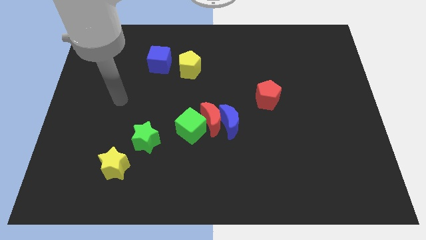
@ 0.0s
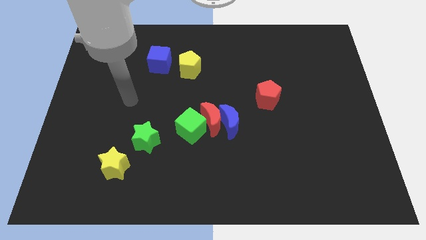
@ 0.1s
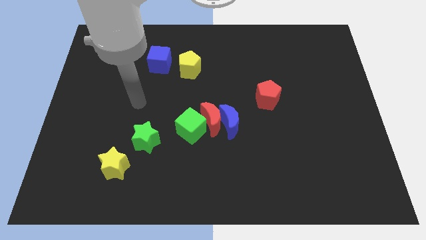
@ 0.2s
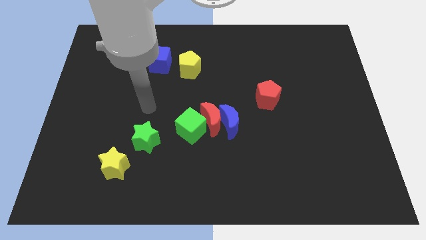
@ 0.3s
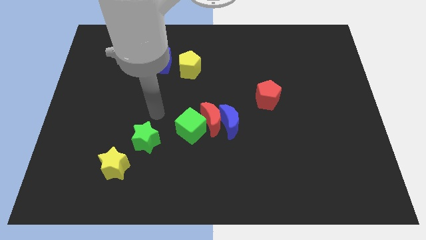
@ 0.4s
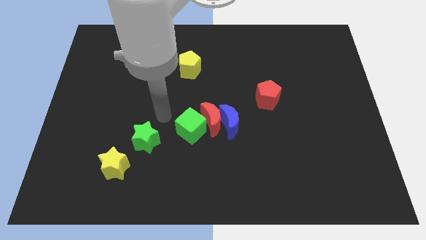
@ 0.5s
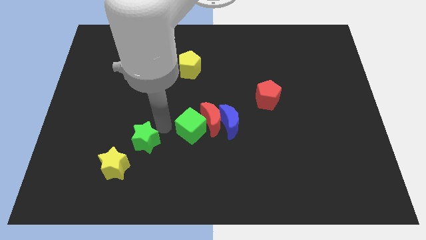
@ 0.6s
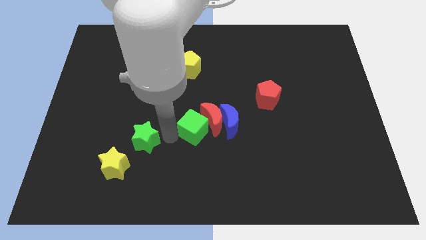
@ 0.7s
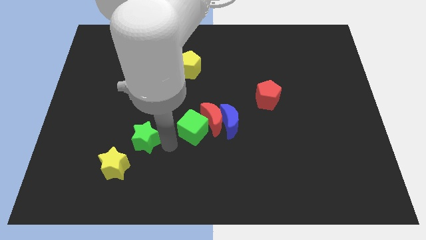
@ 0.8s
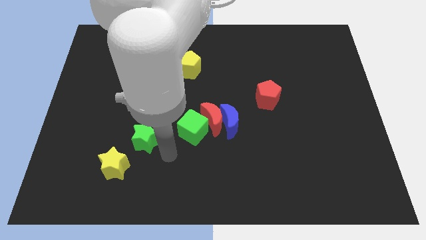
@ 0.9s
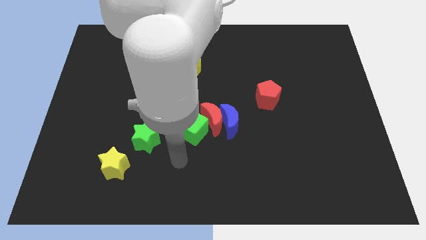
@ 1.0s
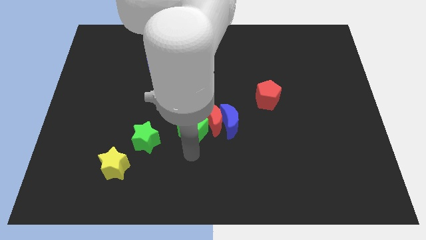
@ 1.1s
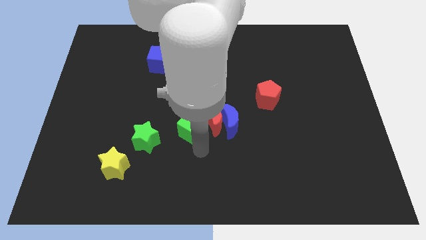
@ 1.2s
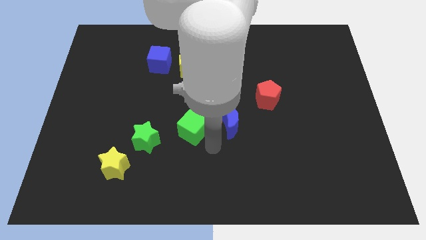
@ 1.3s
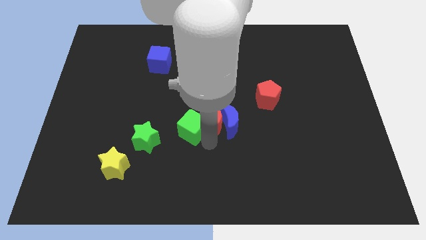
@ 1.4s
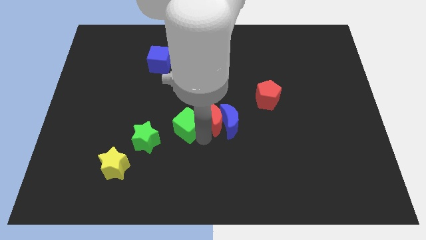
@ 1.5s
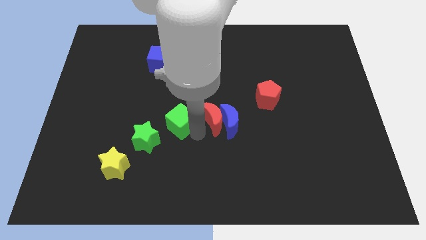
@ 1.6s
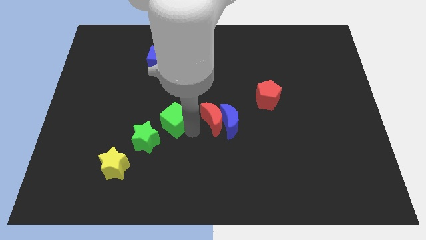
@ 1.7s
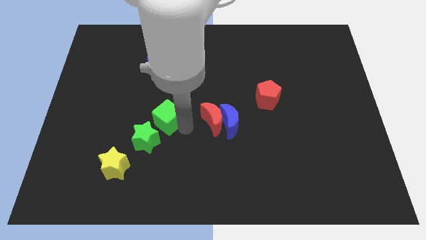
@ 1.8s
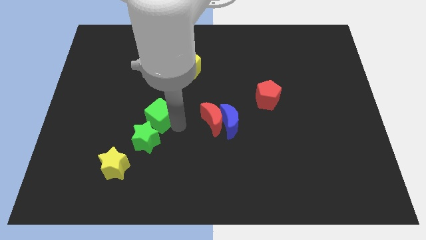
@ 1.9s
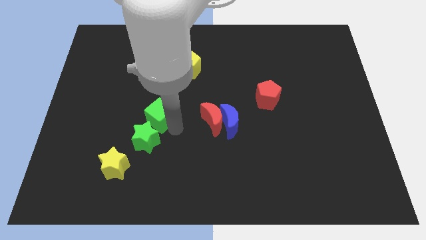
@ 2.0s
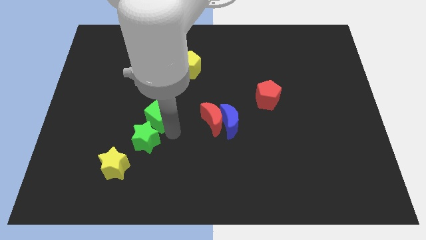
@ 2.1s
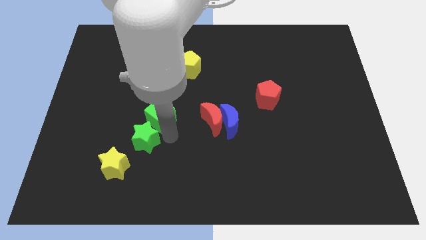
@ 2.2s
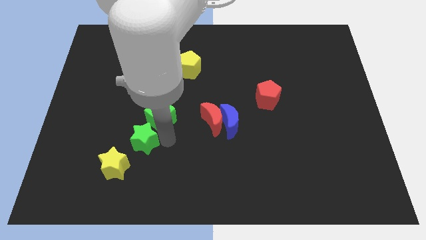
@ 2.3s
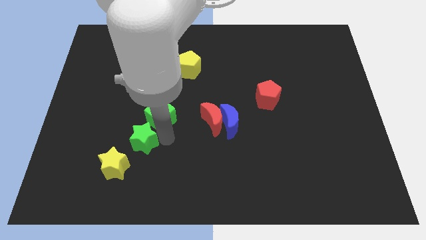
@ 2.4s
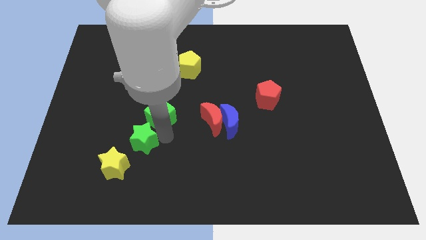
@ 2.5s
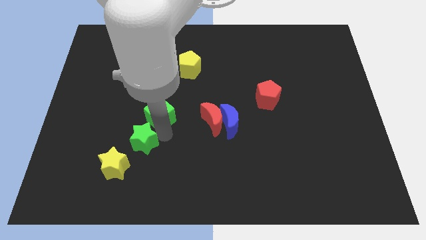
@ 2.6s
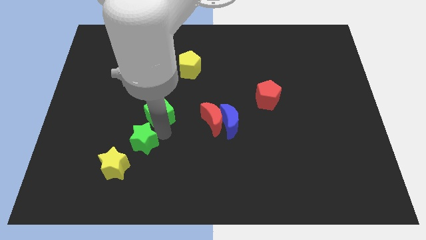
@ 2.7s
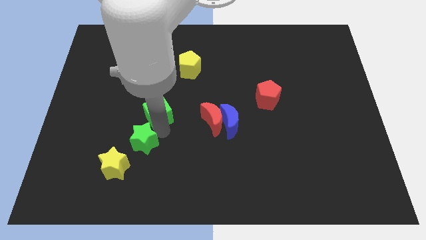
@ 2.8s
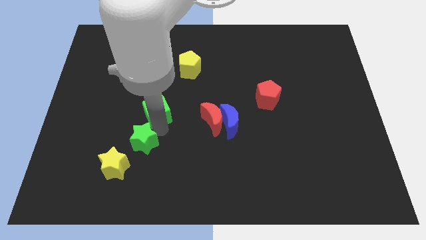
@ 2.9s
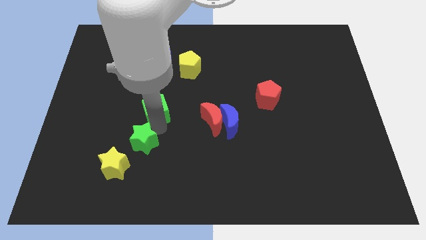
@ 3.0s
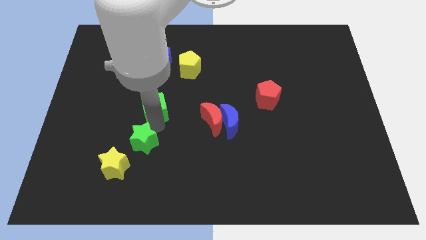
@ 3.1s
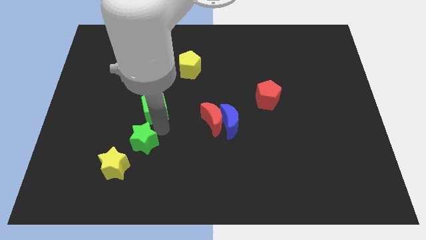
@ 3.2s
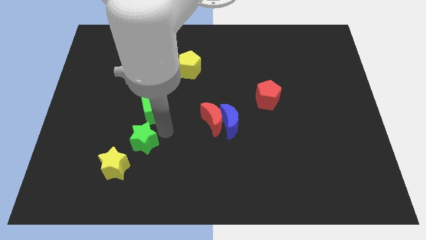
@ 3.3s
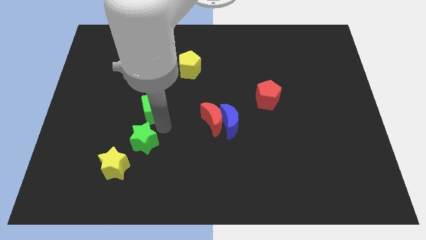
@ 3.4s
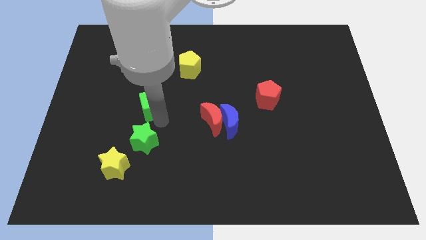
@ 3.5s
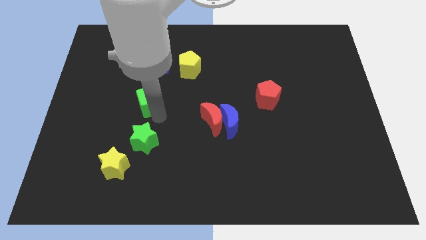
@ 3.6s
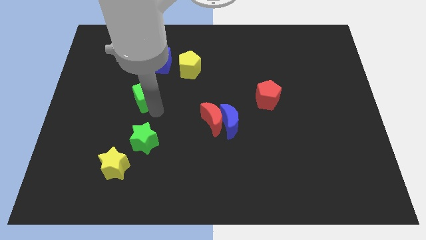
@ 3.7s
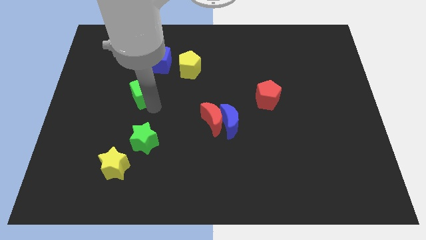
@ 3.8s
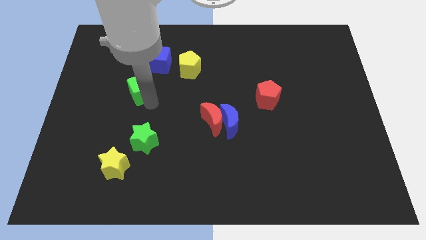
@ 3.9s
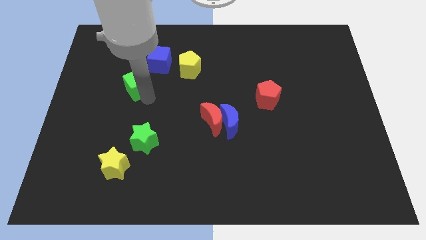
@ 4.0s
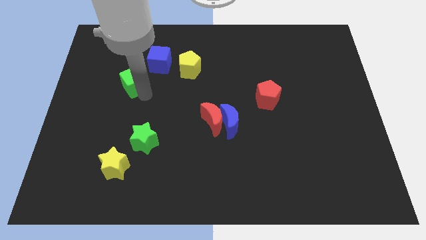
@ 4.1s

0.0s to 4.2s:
slide the green cube upwards and to the left diagonally

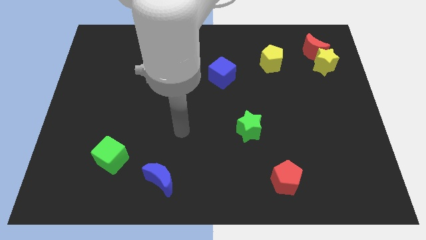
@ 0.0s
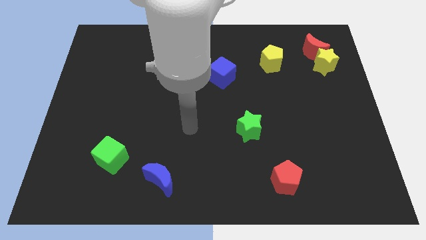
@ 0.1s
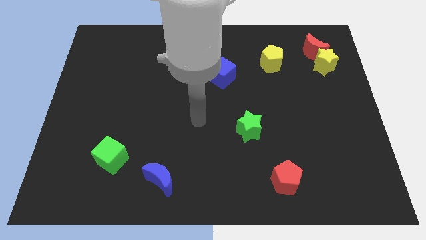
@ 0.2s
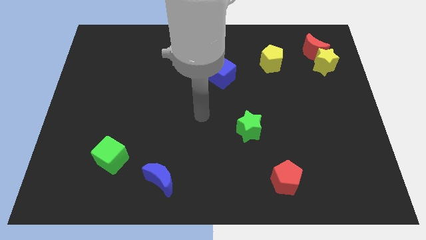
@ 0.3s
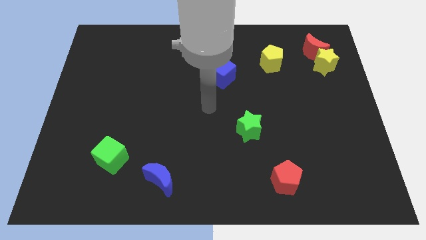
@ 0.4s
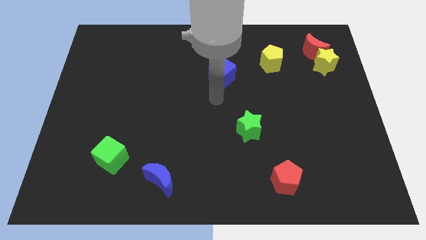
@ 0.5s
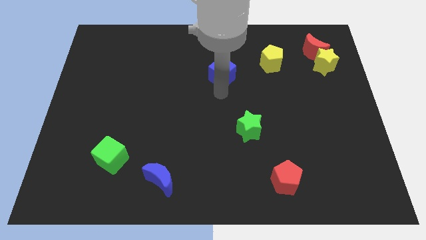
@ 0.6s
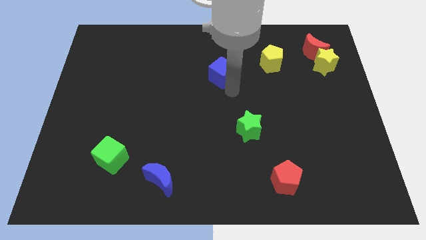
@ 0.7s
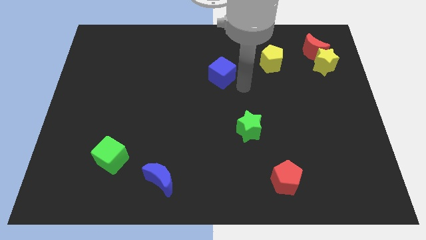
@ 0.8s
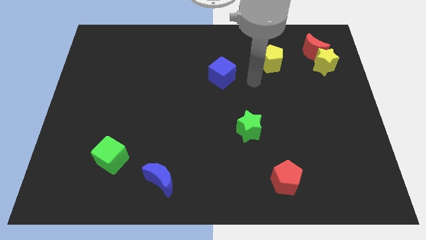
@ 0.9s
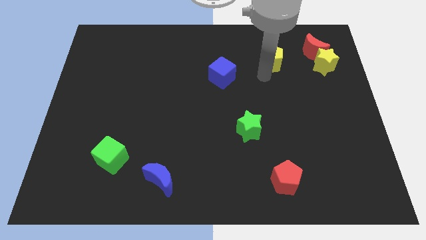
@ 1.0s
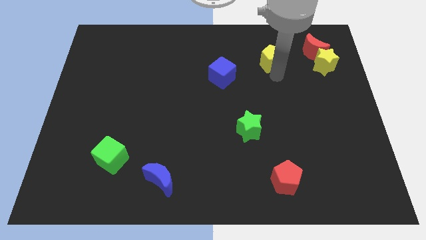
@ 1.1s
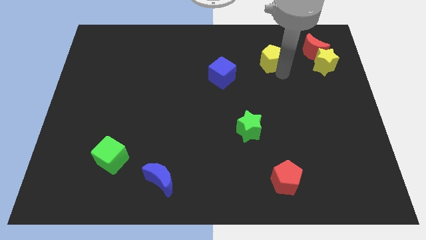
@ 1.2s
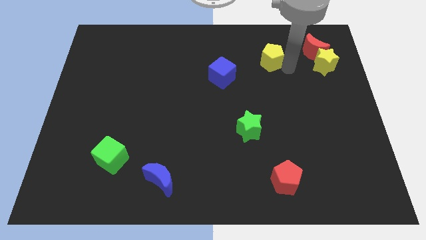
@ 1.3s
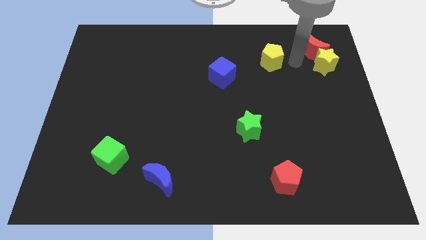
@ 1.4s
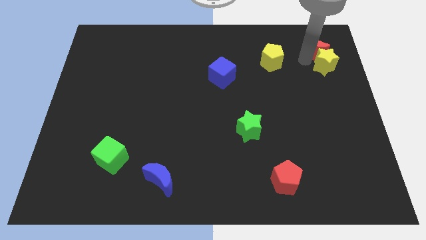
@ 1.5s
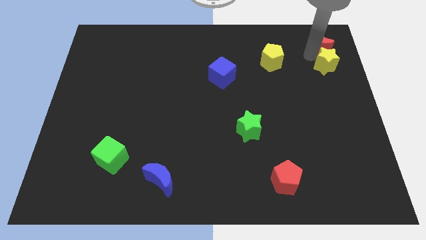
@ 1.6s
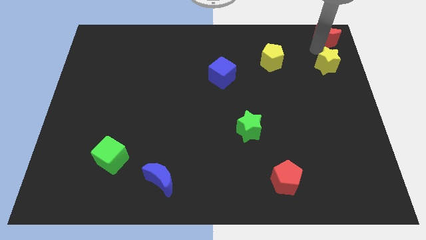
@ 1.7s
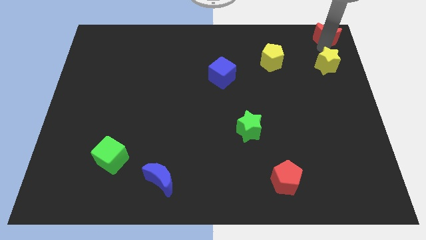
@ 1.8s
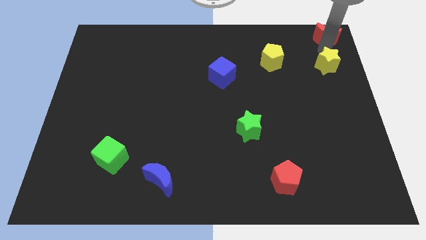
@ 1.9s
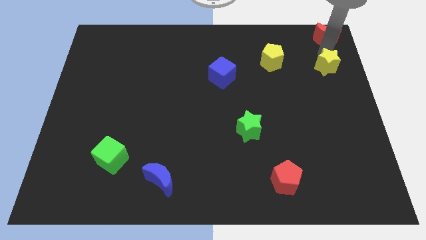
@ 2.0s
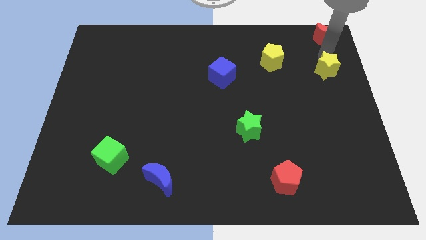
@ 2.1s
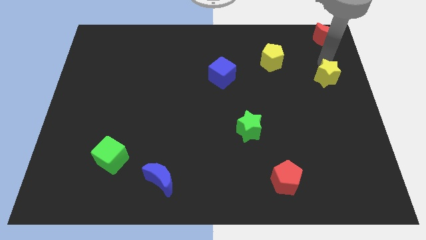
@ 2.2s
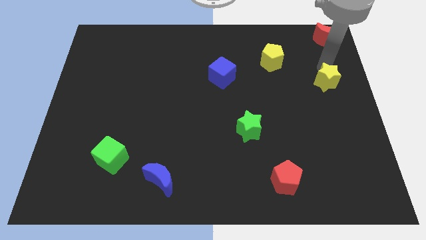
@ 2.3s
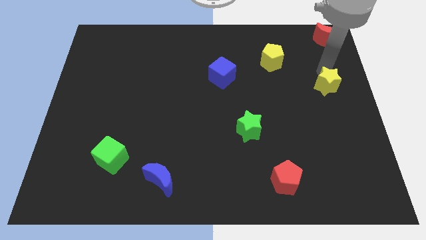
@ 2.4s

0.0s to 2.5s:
slightly push the yellow star downwards

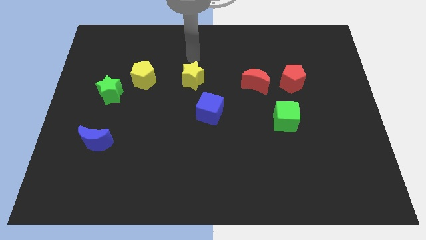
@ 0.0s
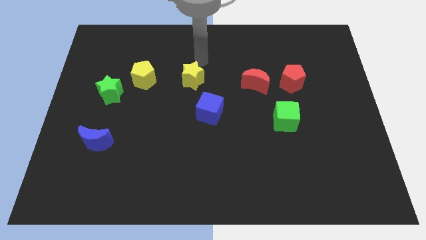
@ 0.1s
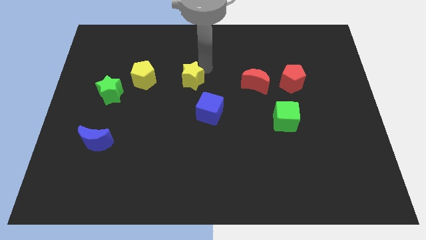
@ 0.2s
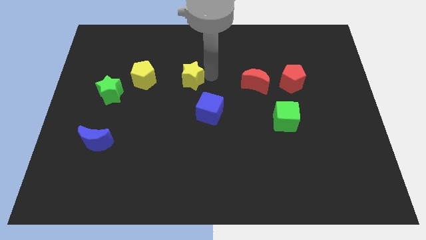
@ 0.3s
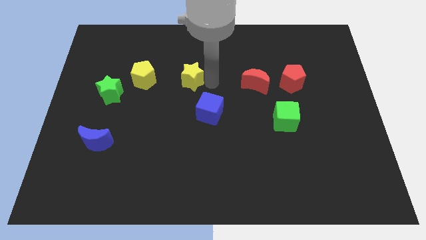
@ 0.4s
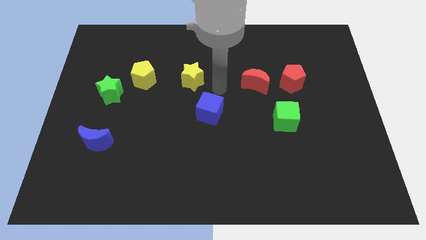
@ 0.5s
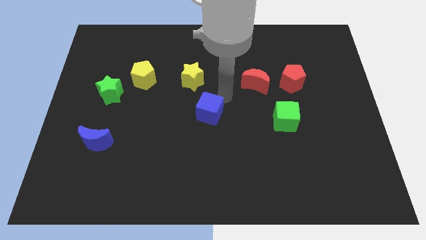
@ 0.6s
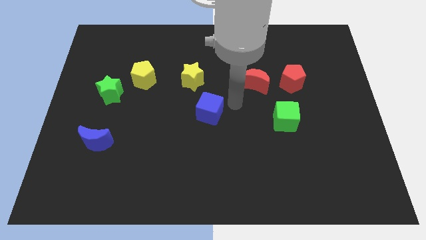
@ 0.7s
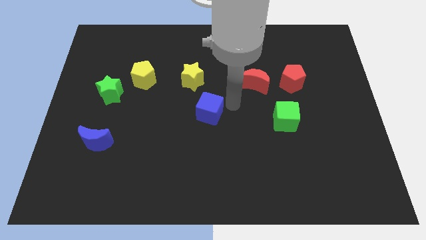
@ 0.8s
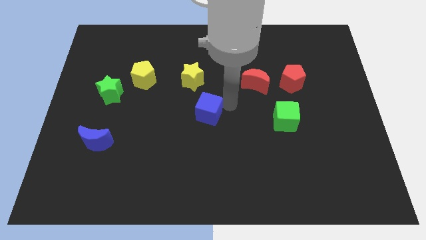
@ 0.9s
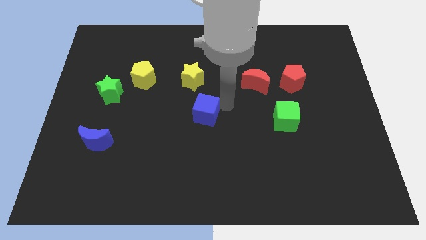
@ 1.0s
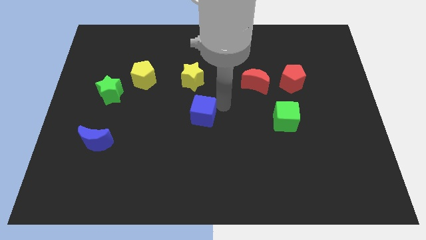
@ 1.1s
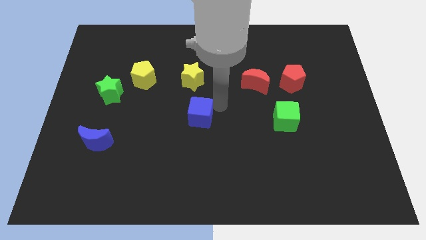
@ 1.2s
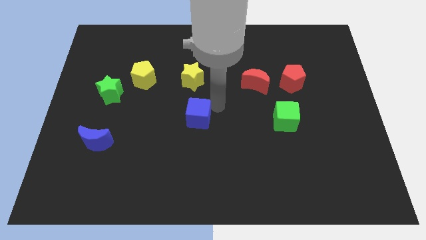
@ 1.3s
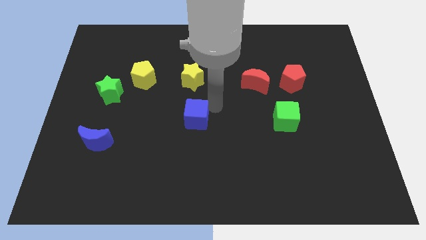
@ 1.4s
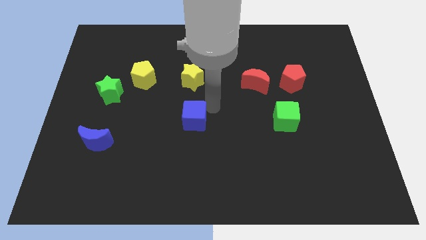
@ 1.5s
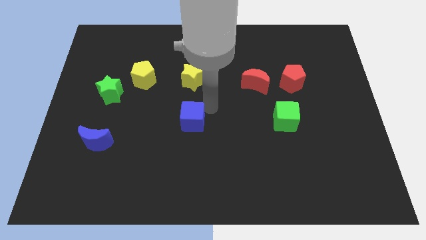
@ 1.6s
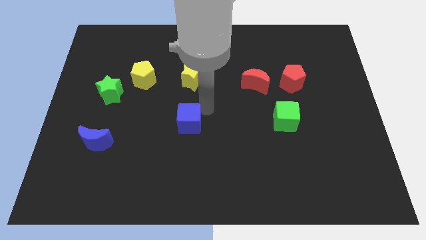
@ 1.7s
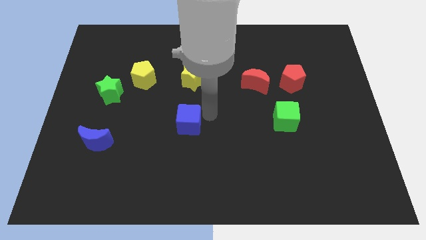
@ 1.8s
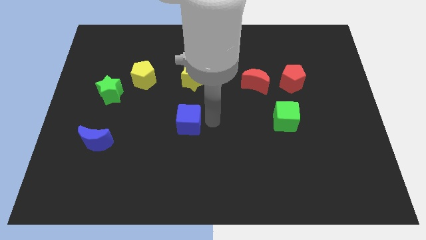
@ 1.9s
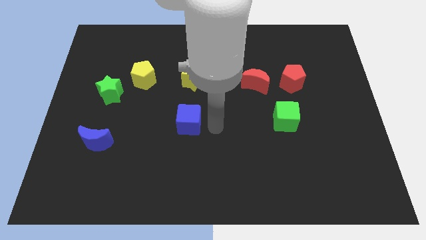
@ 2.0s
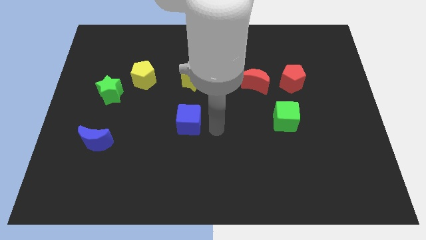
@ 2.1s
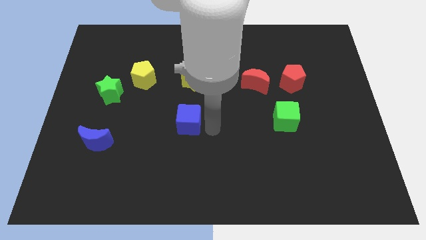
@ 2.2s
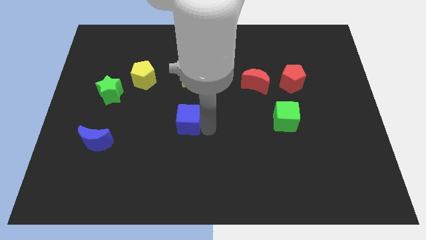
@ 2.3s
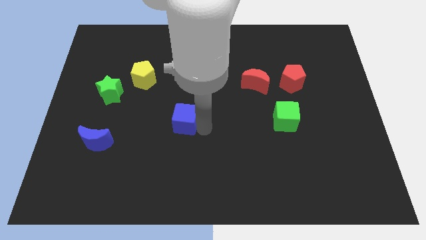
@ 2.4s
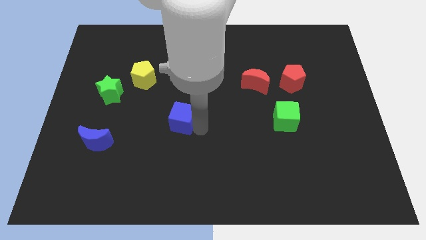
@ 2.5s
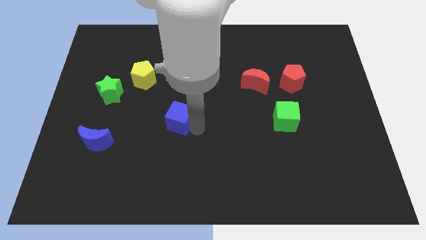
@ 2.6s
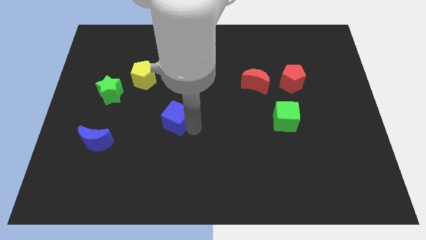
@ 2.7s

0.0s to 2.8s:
slightly push the blue cube left
